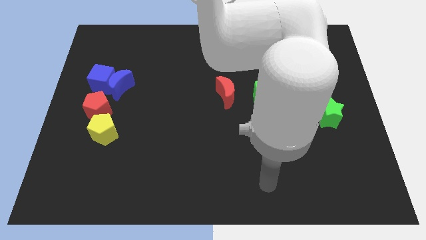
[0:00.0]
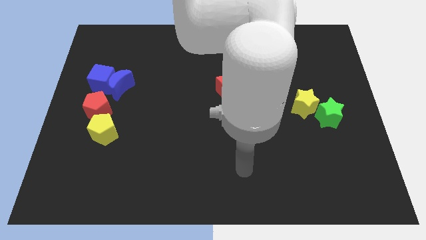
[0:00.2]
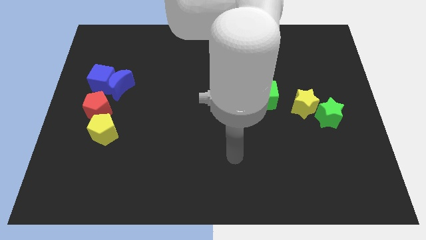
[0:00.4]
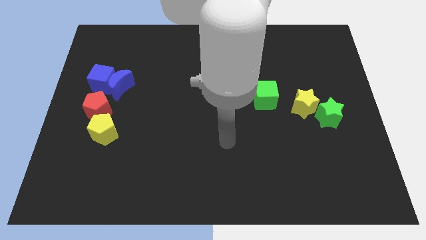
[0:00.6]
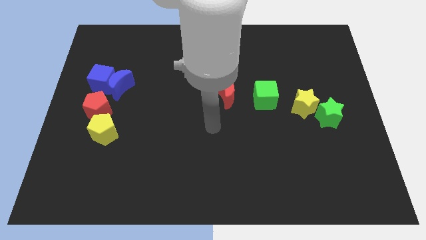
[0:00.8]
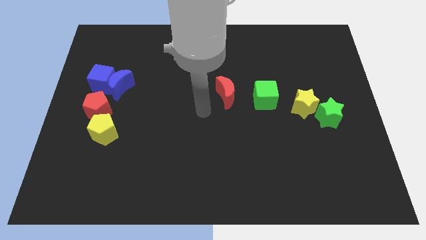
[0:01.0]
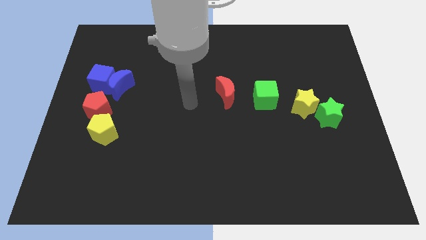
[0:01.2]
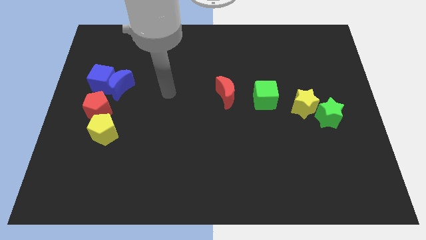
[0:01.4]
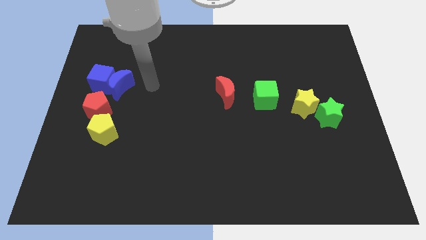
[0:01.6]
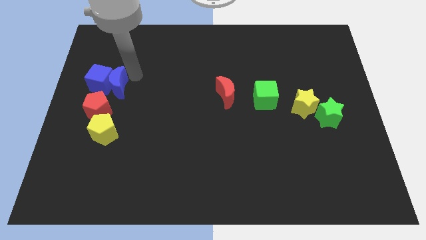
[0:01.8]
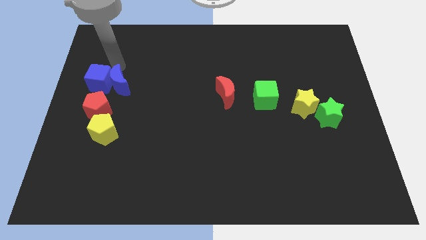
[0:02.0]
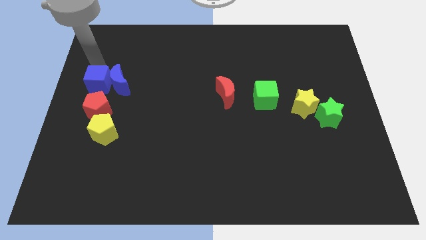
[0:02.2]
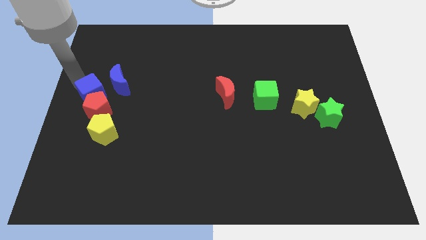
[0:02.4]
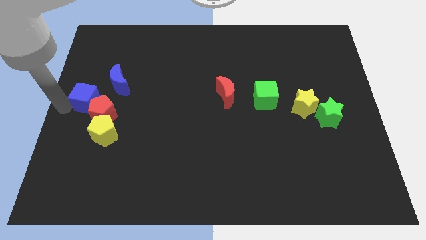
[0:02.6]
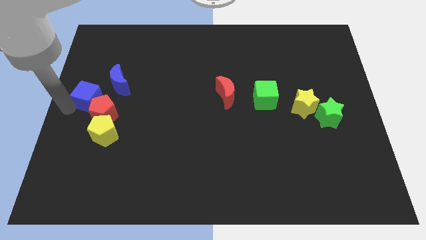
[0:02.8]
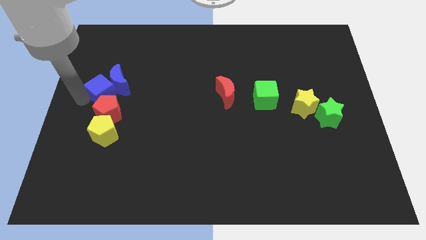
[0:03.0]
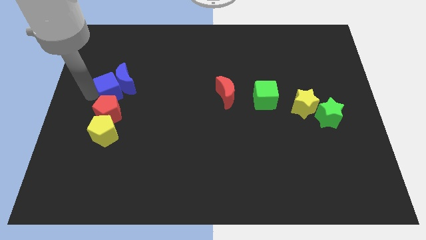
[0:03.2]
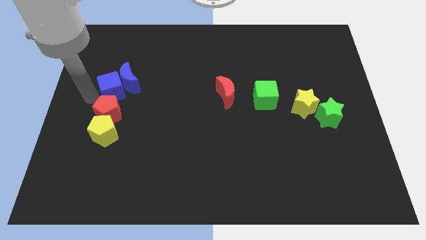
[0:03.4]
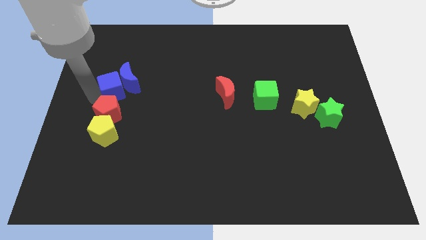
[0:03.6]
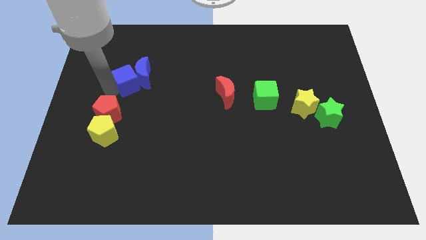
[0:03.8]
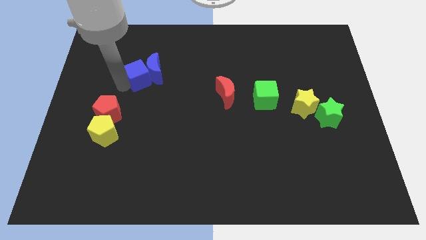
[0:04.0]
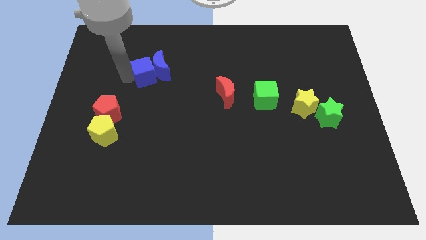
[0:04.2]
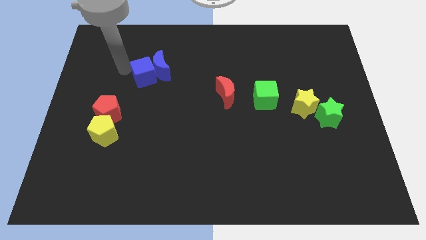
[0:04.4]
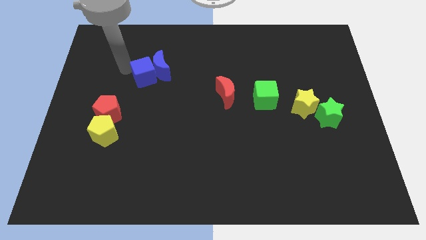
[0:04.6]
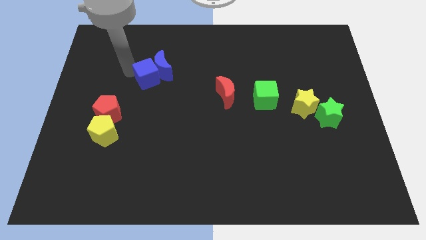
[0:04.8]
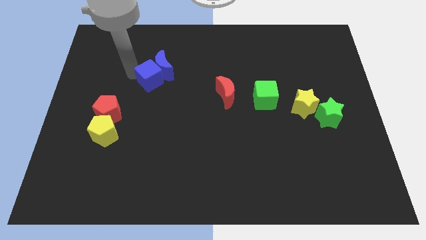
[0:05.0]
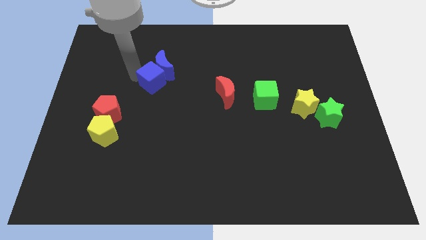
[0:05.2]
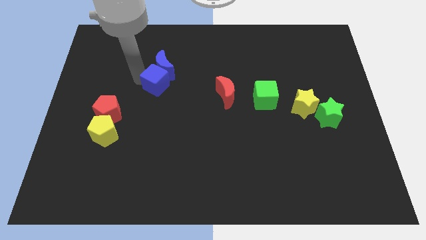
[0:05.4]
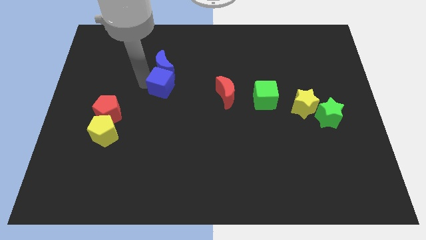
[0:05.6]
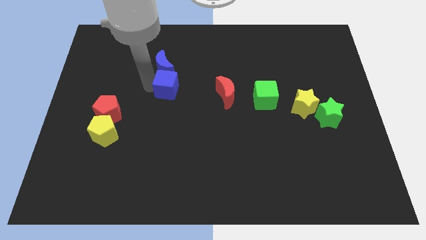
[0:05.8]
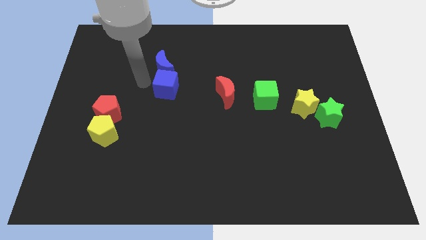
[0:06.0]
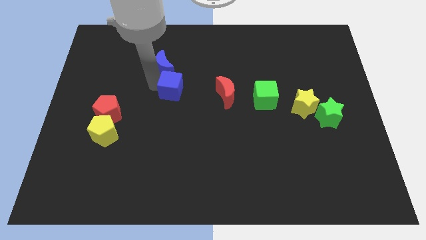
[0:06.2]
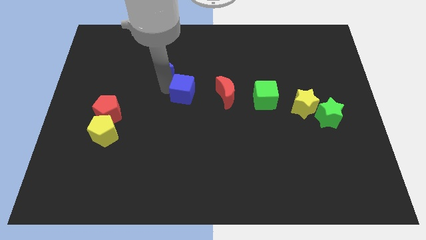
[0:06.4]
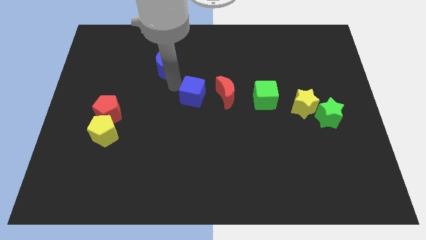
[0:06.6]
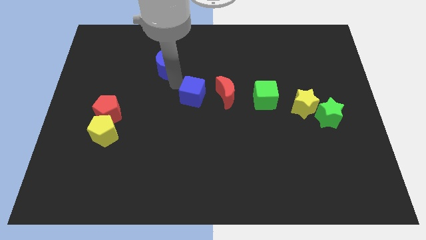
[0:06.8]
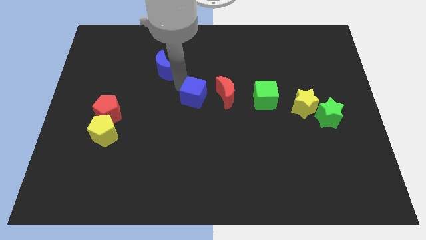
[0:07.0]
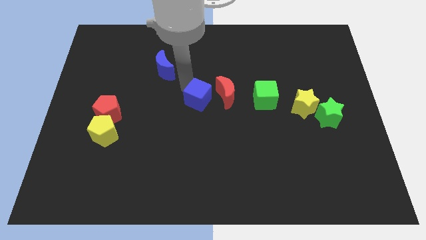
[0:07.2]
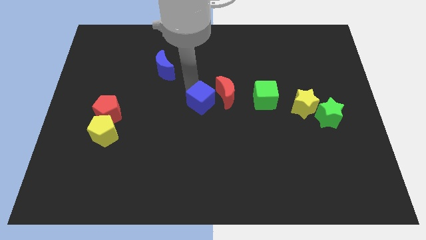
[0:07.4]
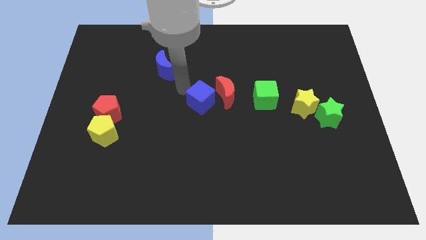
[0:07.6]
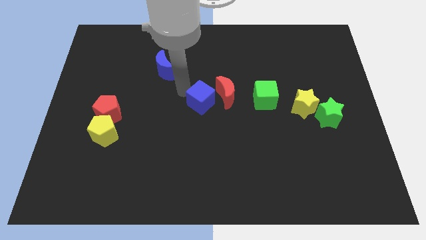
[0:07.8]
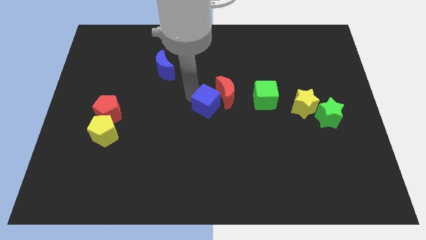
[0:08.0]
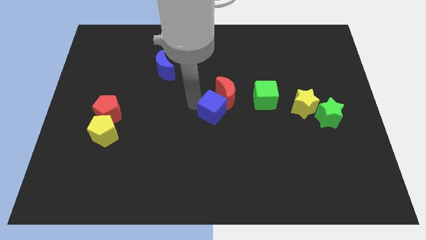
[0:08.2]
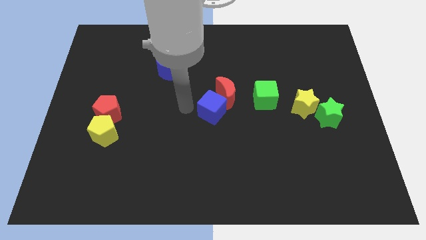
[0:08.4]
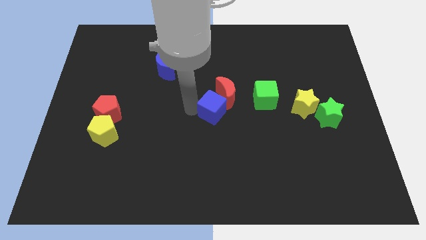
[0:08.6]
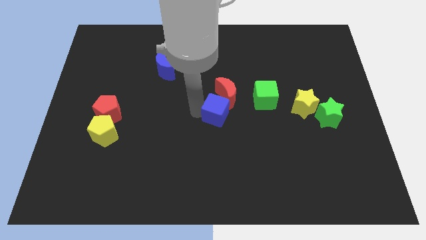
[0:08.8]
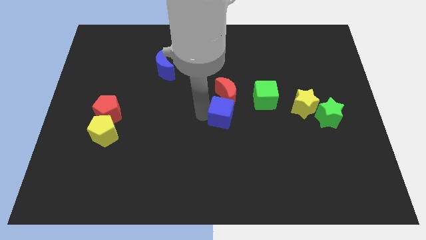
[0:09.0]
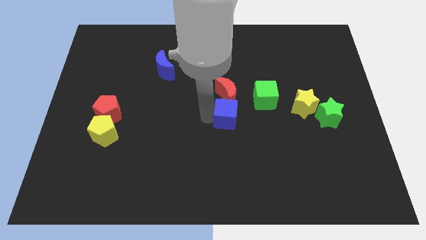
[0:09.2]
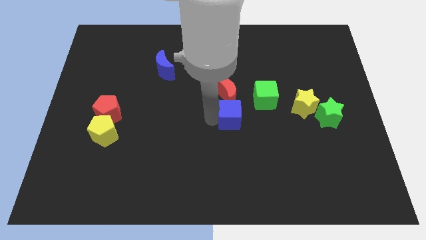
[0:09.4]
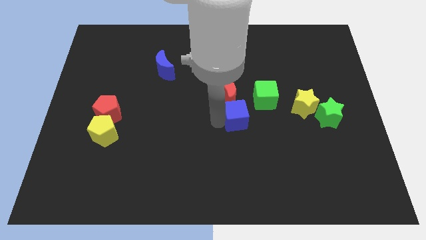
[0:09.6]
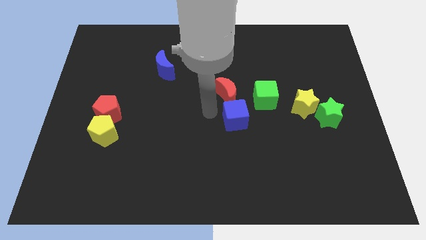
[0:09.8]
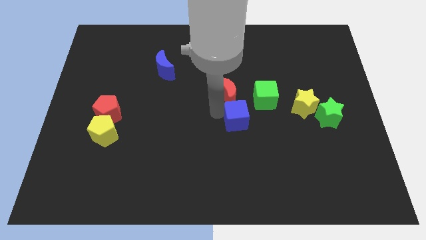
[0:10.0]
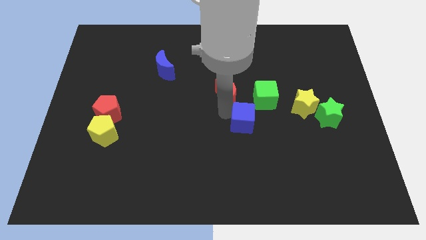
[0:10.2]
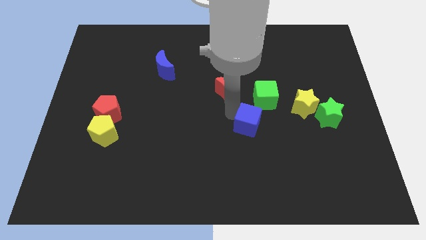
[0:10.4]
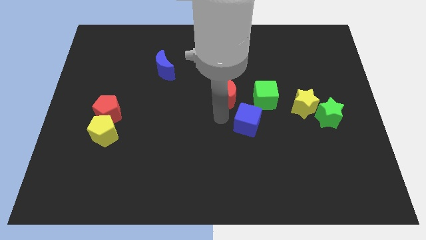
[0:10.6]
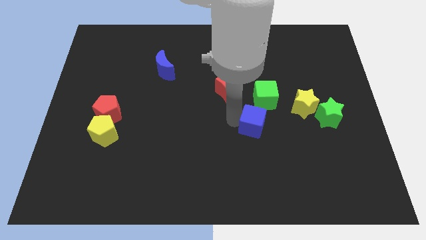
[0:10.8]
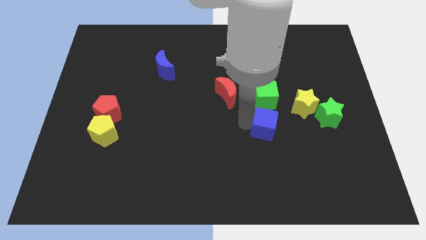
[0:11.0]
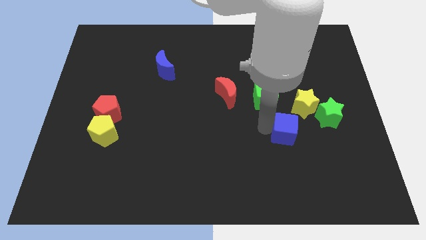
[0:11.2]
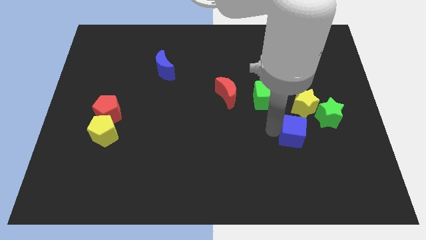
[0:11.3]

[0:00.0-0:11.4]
move the blue cube to the bottom left of the green star

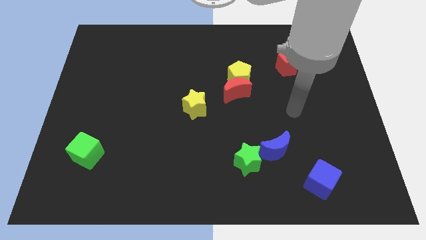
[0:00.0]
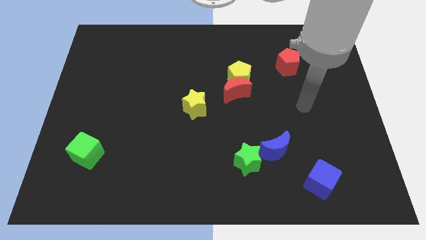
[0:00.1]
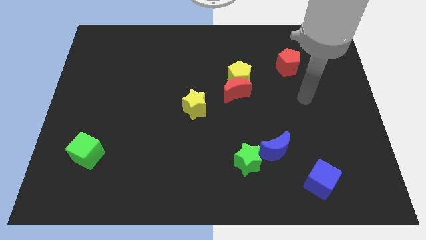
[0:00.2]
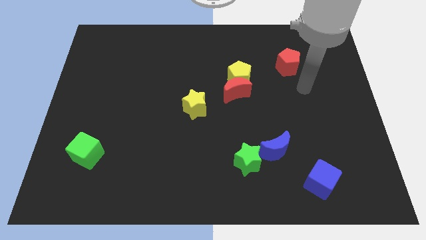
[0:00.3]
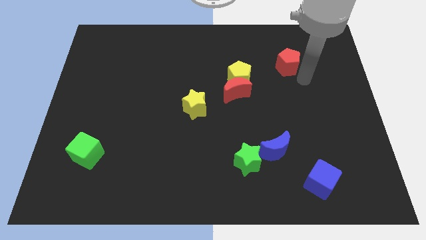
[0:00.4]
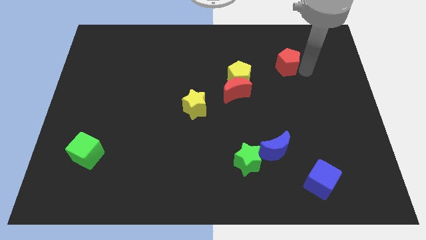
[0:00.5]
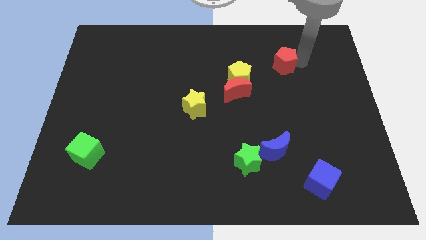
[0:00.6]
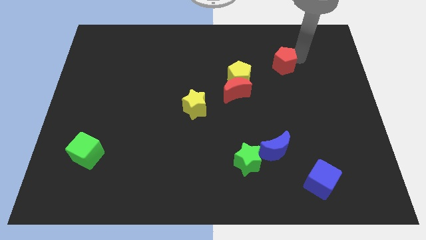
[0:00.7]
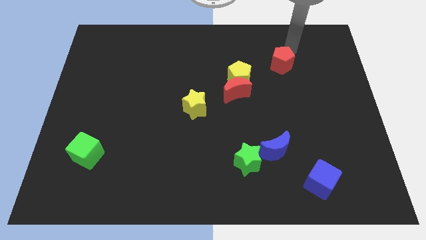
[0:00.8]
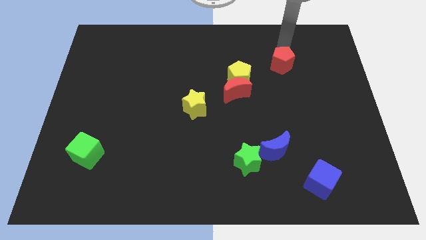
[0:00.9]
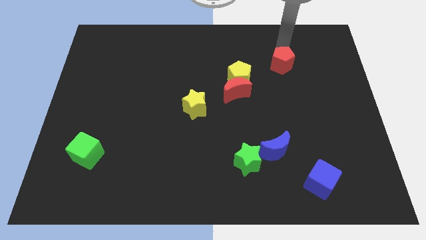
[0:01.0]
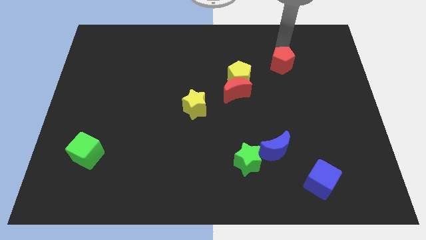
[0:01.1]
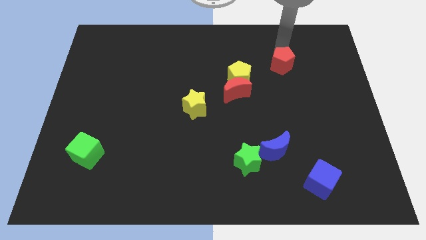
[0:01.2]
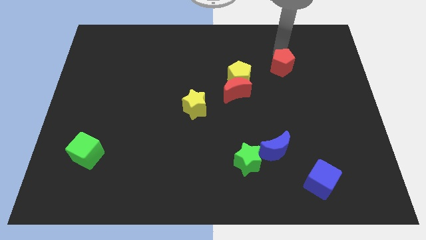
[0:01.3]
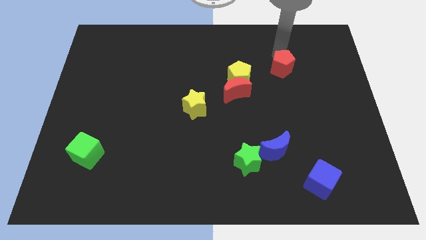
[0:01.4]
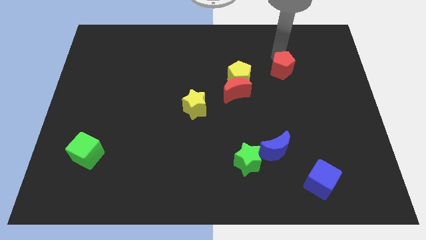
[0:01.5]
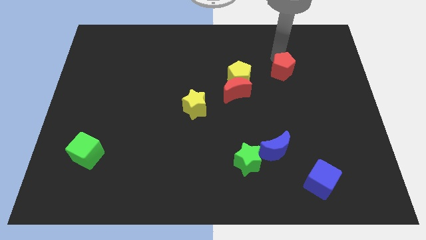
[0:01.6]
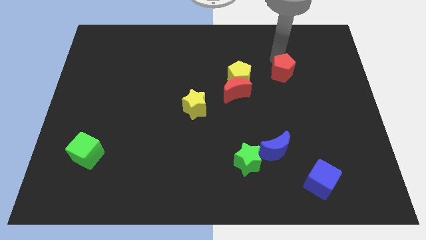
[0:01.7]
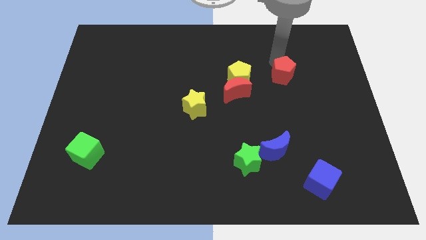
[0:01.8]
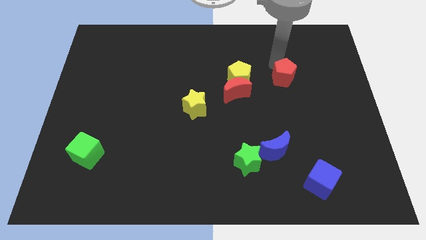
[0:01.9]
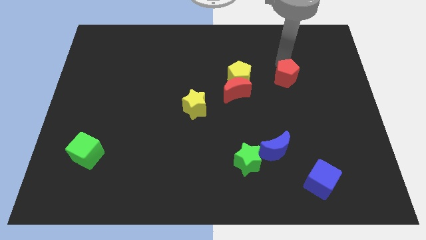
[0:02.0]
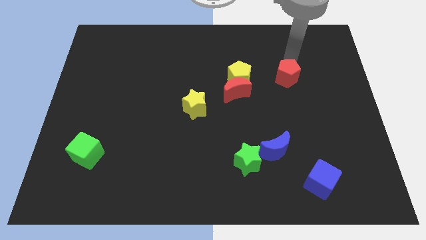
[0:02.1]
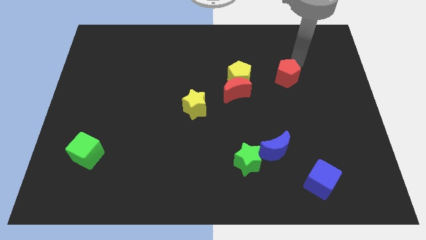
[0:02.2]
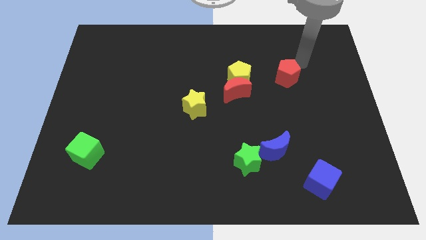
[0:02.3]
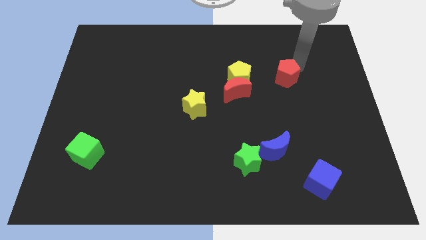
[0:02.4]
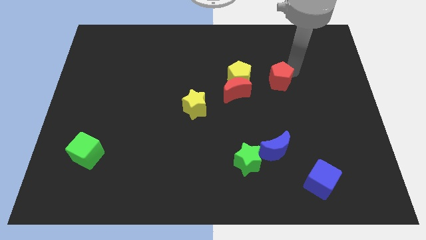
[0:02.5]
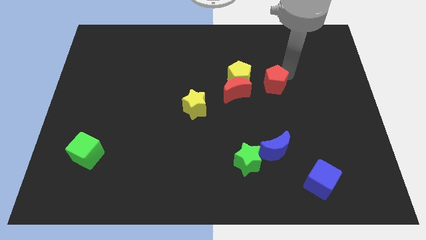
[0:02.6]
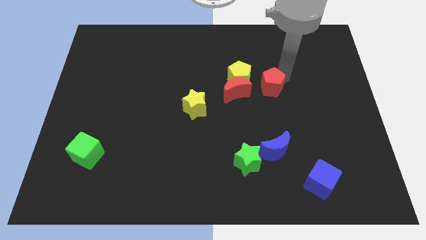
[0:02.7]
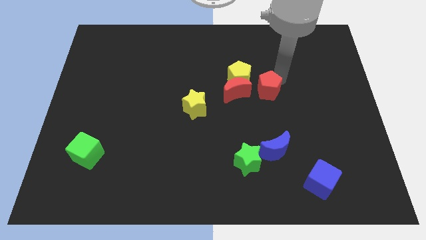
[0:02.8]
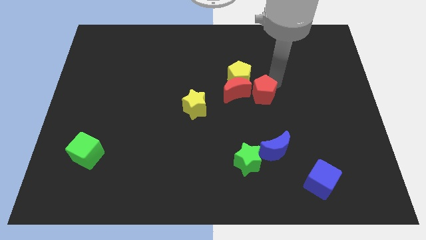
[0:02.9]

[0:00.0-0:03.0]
slide the red pentagon to the bottom right of the red moon
